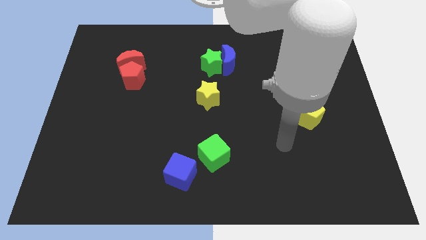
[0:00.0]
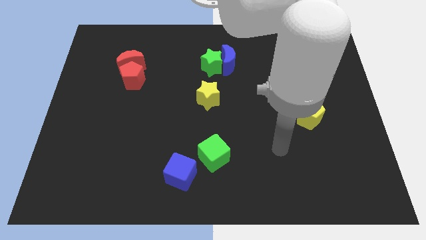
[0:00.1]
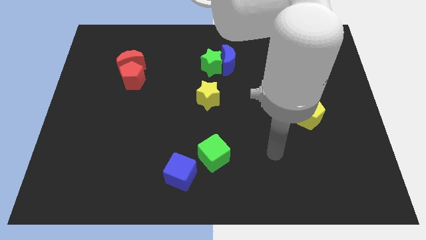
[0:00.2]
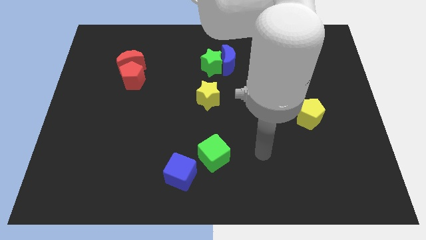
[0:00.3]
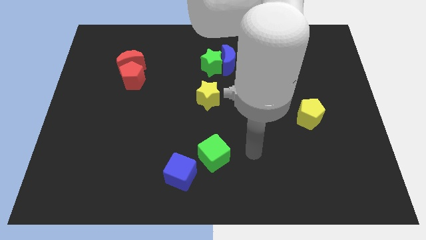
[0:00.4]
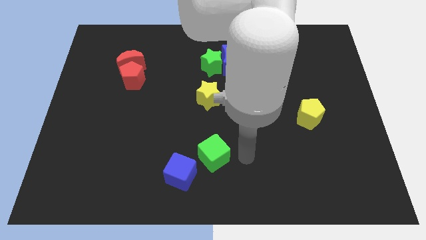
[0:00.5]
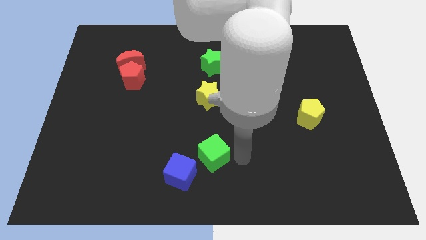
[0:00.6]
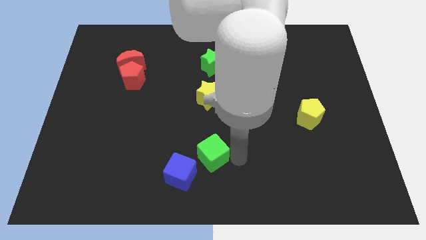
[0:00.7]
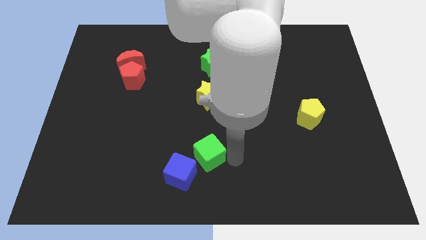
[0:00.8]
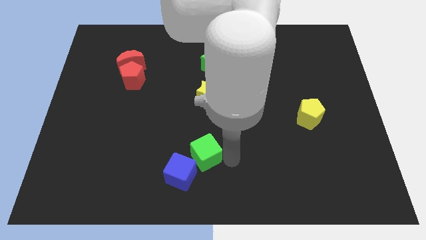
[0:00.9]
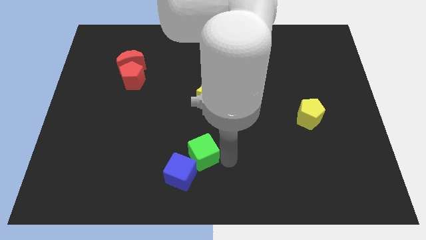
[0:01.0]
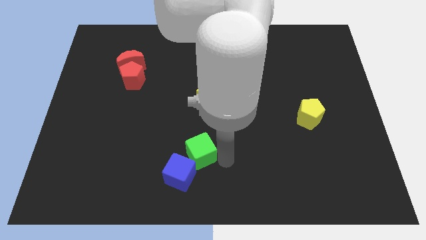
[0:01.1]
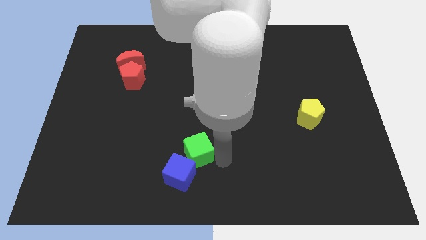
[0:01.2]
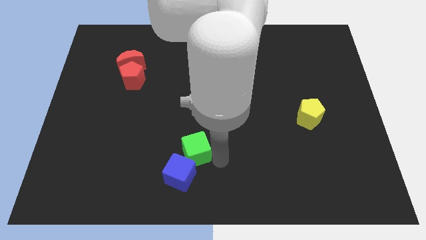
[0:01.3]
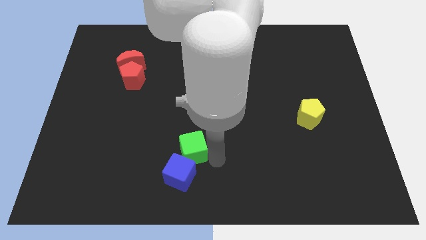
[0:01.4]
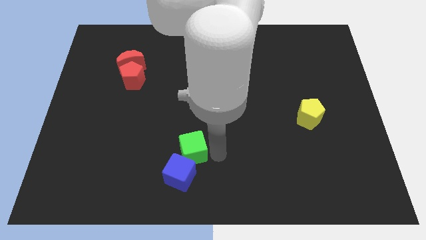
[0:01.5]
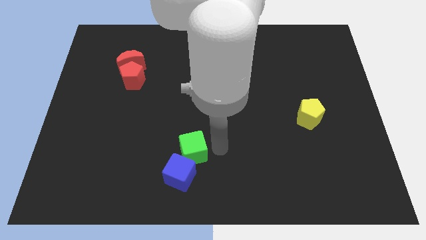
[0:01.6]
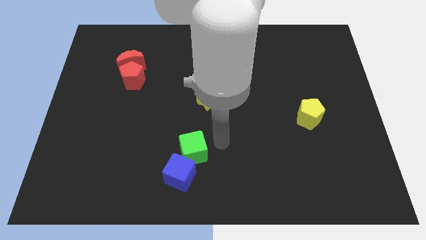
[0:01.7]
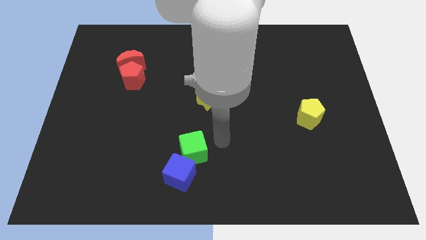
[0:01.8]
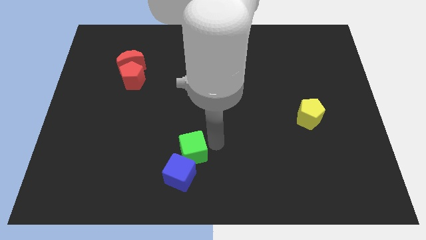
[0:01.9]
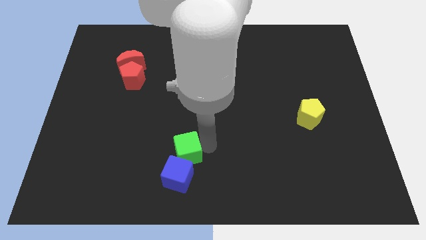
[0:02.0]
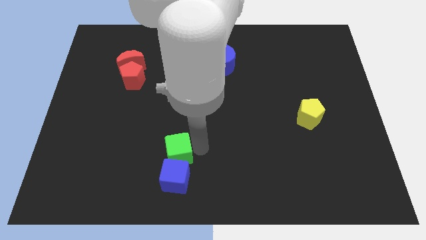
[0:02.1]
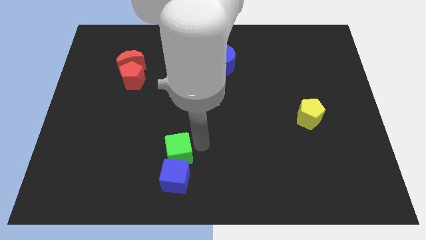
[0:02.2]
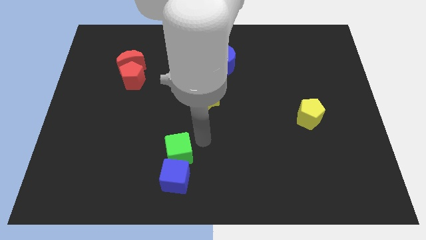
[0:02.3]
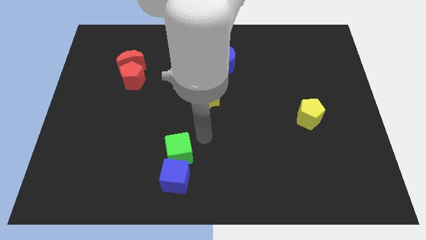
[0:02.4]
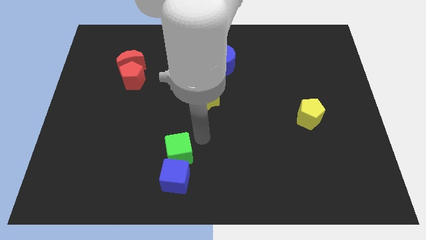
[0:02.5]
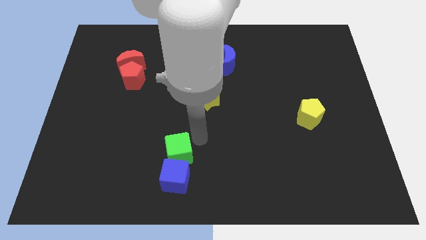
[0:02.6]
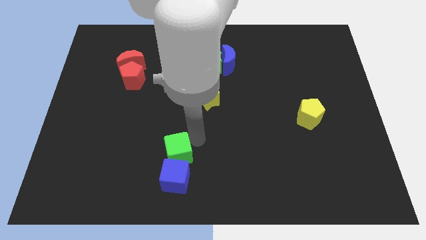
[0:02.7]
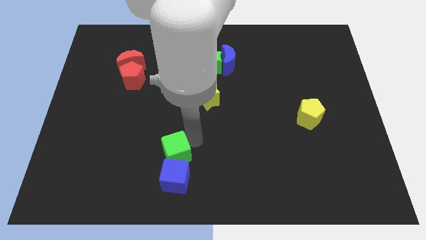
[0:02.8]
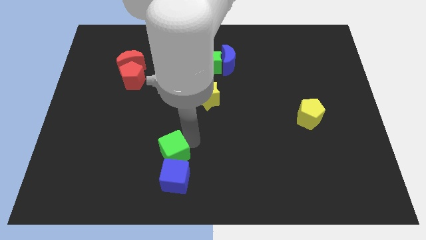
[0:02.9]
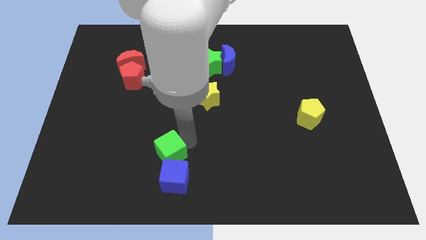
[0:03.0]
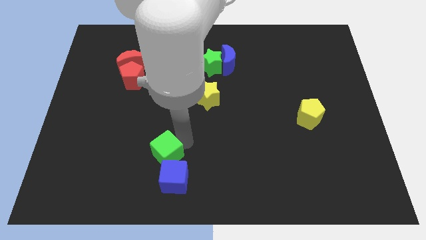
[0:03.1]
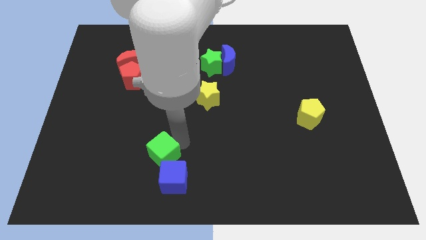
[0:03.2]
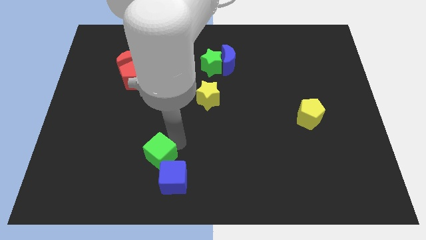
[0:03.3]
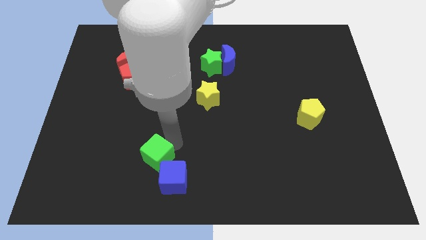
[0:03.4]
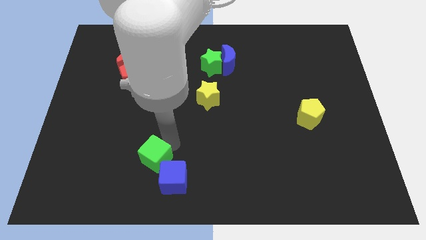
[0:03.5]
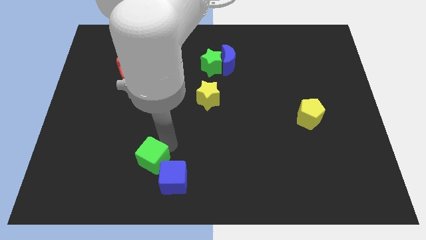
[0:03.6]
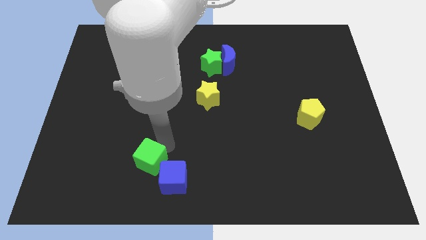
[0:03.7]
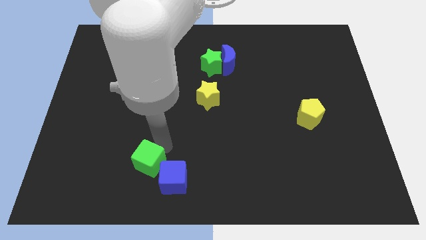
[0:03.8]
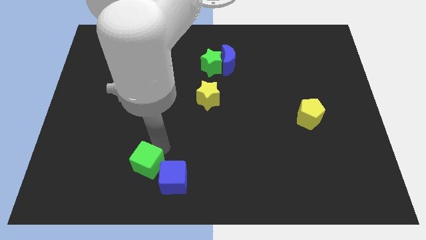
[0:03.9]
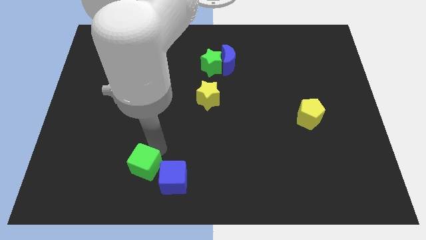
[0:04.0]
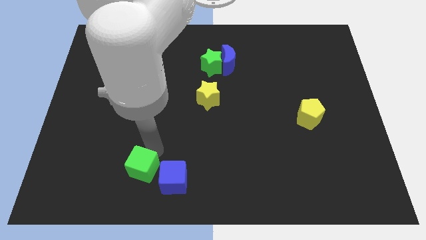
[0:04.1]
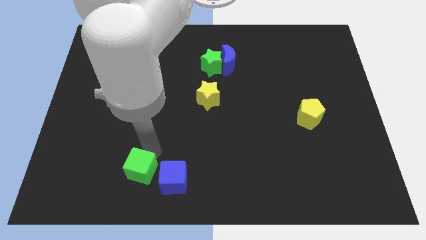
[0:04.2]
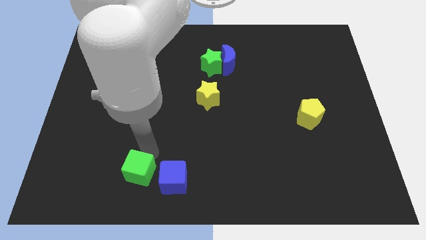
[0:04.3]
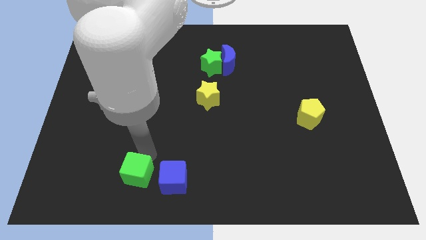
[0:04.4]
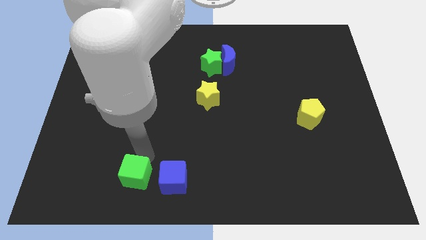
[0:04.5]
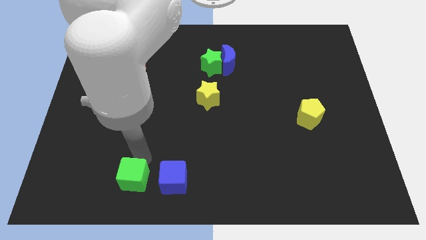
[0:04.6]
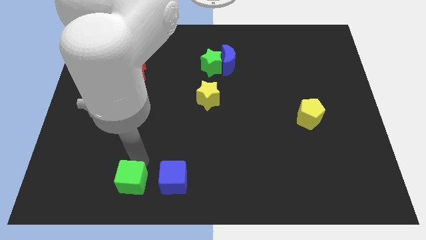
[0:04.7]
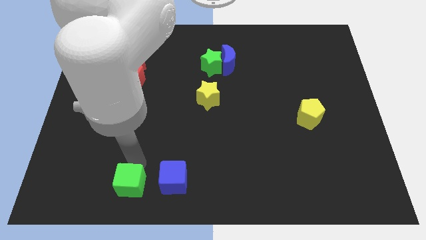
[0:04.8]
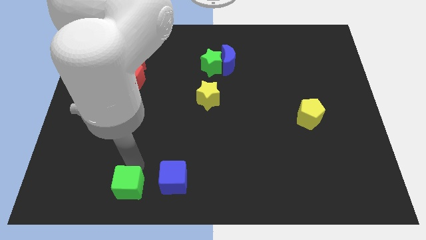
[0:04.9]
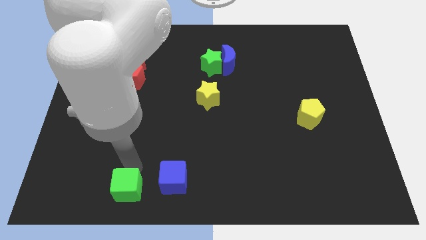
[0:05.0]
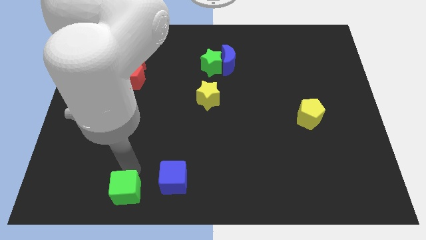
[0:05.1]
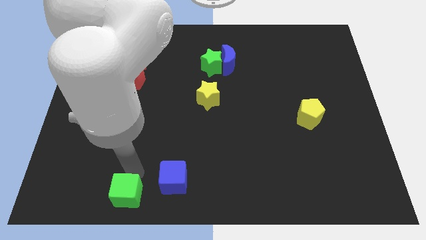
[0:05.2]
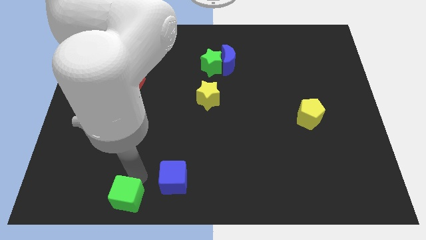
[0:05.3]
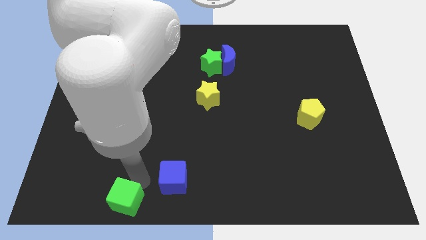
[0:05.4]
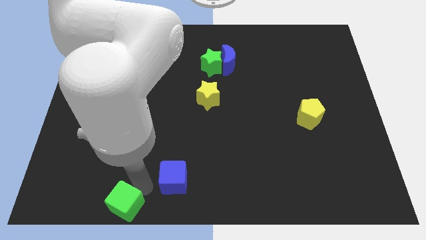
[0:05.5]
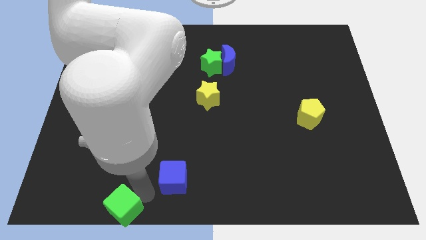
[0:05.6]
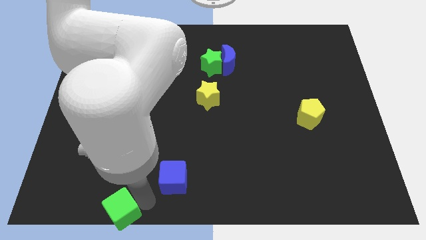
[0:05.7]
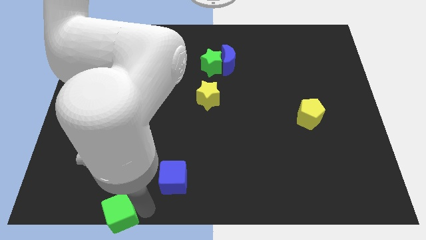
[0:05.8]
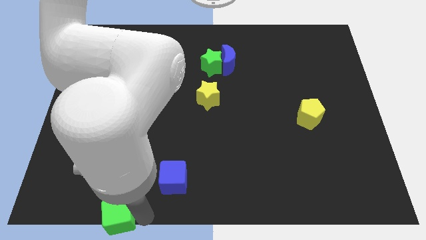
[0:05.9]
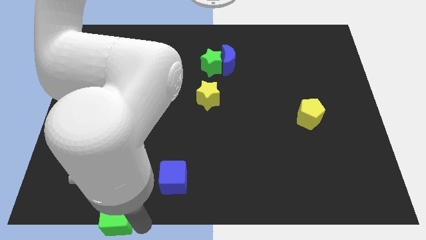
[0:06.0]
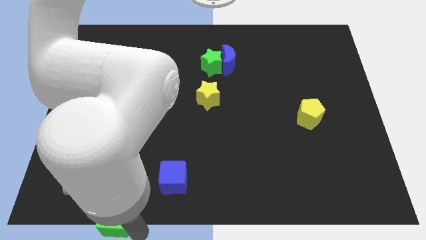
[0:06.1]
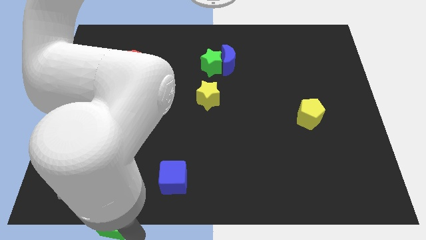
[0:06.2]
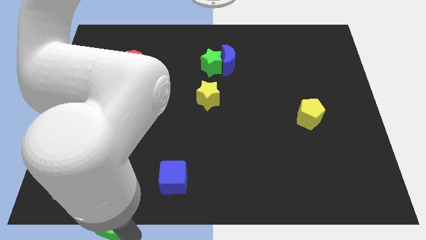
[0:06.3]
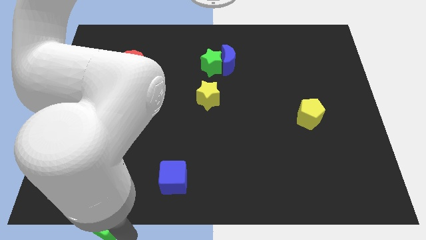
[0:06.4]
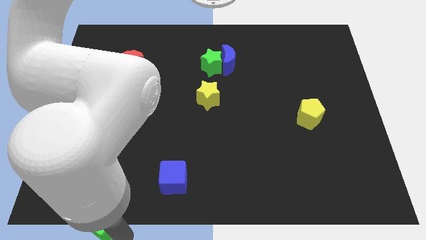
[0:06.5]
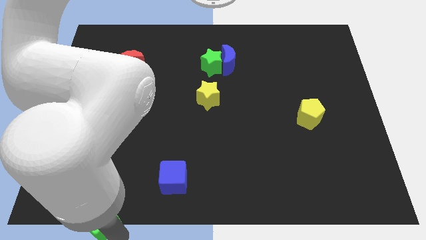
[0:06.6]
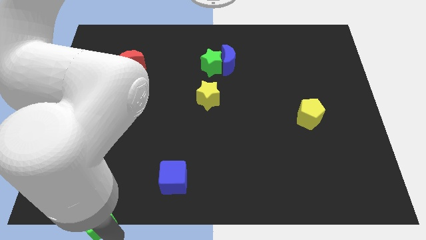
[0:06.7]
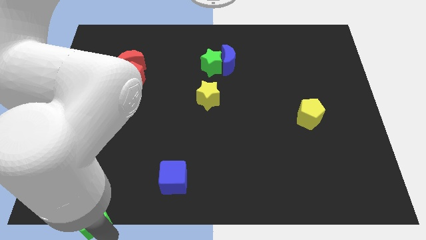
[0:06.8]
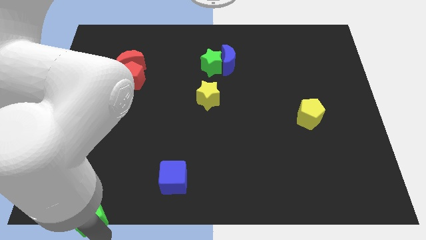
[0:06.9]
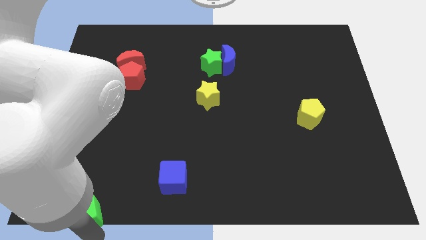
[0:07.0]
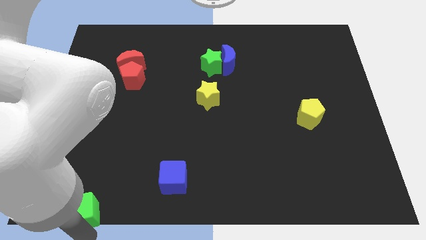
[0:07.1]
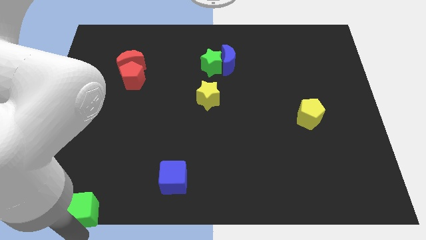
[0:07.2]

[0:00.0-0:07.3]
push the green cube to the lower left corner
